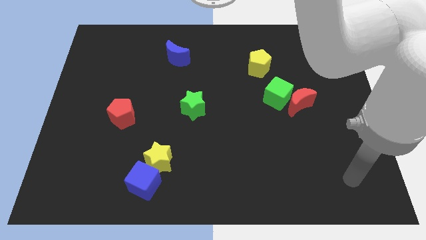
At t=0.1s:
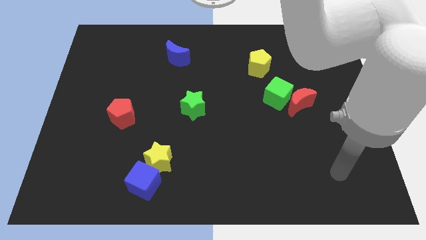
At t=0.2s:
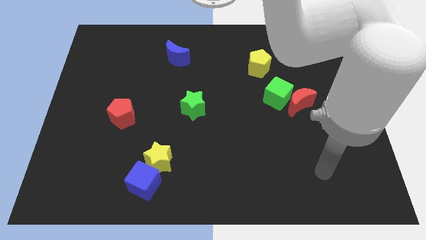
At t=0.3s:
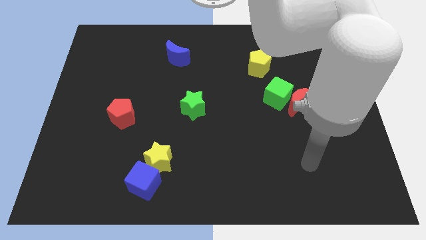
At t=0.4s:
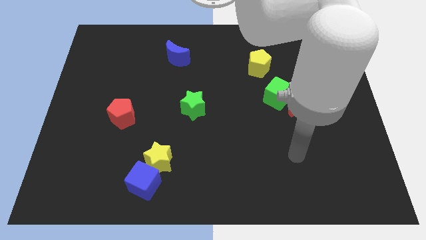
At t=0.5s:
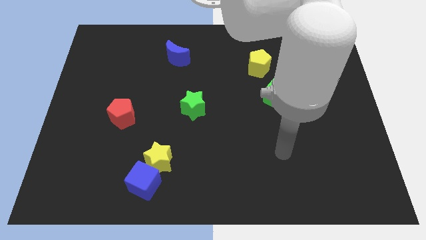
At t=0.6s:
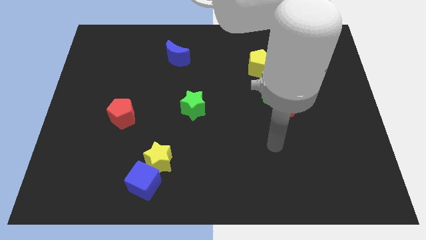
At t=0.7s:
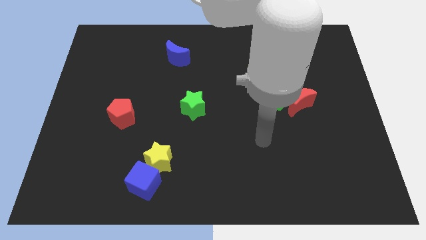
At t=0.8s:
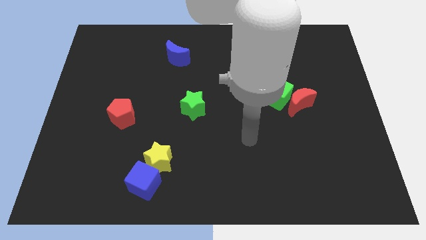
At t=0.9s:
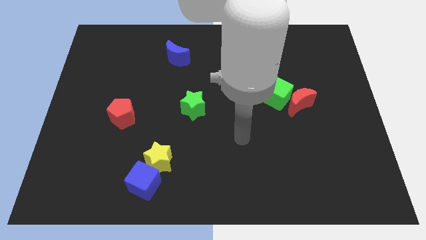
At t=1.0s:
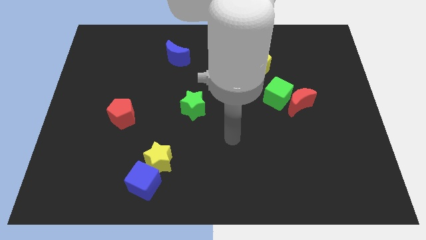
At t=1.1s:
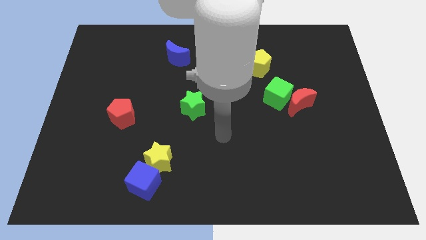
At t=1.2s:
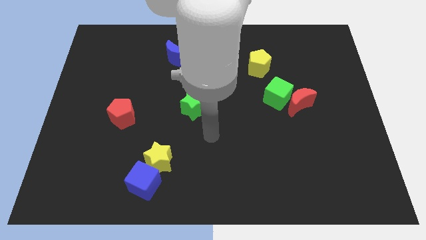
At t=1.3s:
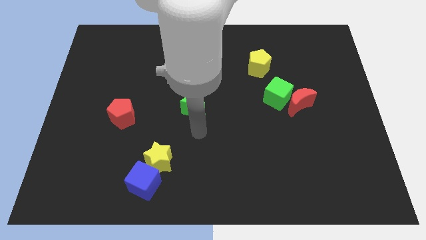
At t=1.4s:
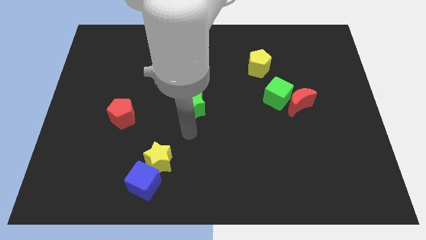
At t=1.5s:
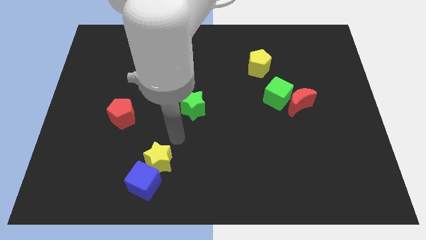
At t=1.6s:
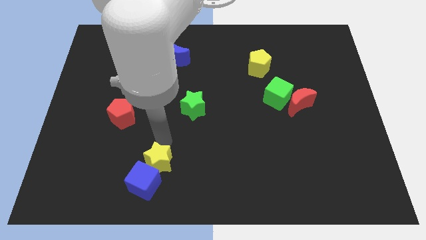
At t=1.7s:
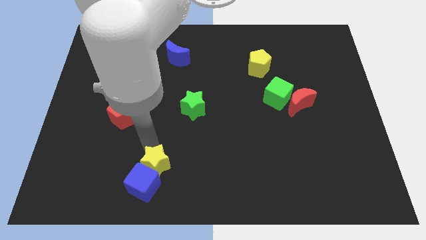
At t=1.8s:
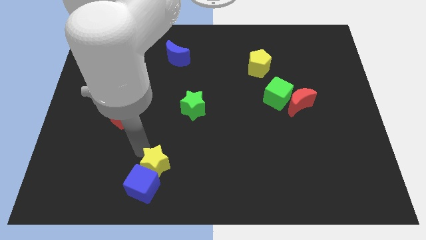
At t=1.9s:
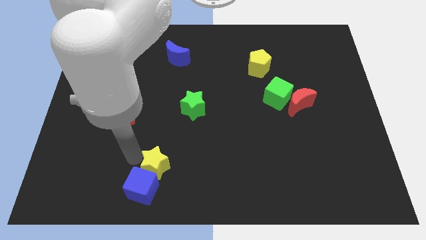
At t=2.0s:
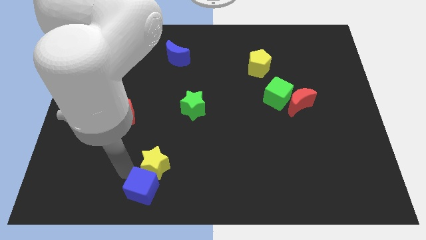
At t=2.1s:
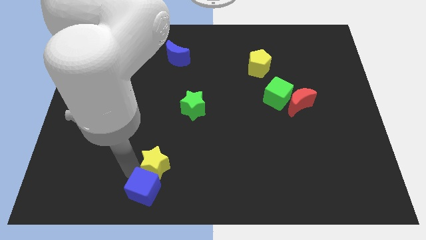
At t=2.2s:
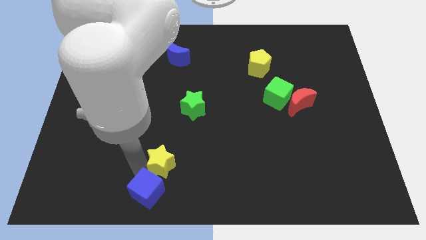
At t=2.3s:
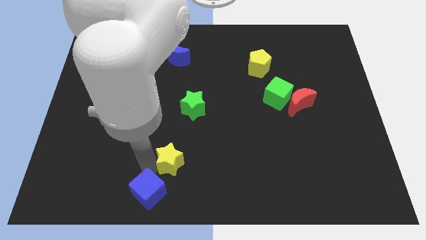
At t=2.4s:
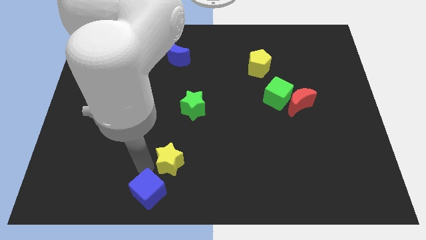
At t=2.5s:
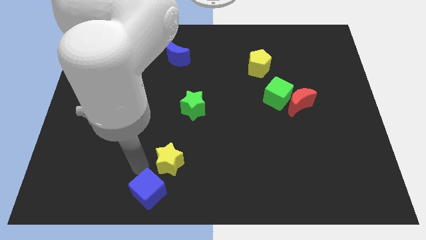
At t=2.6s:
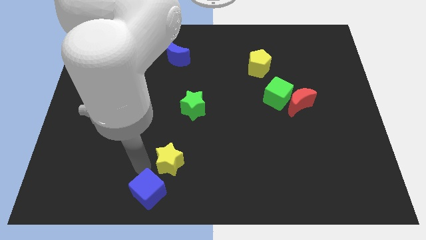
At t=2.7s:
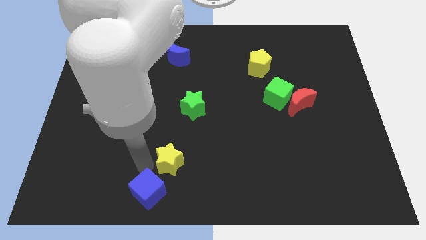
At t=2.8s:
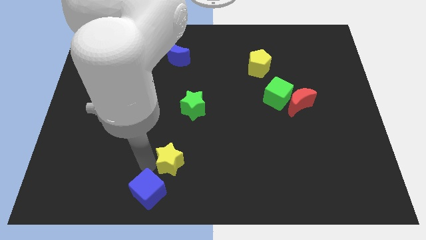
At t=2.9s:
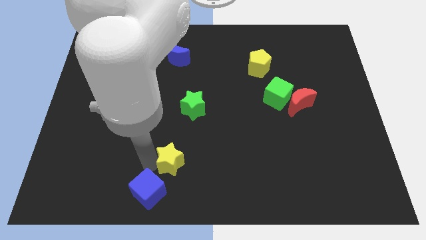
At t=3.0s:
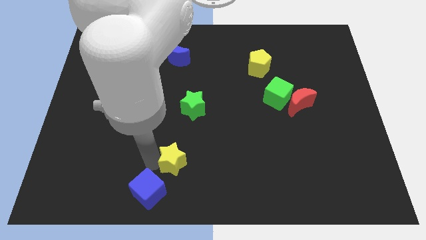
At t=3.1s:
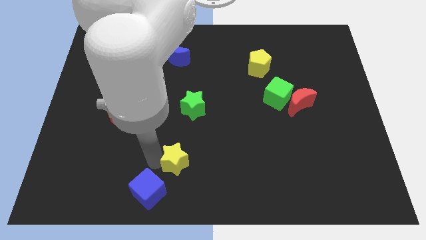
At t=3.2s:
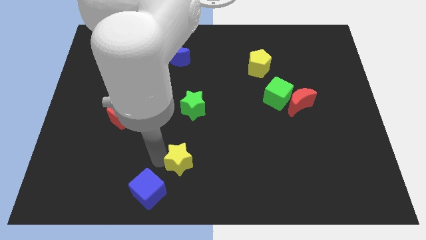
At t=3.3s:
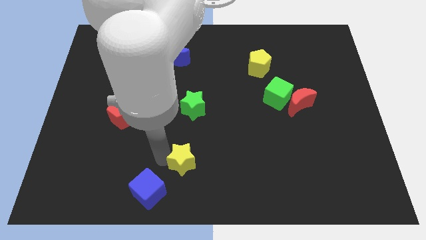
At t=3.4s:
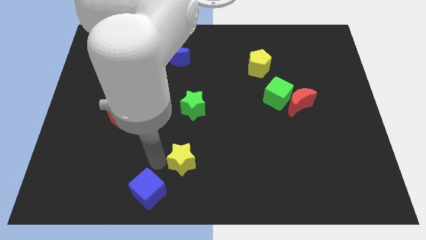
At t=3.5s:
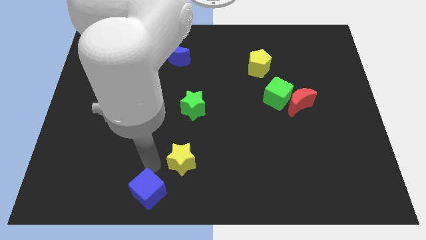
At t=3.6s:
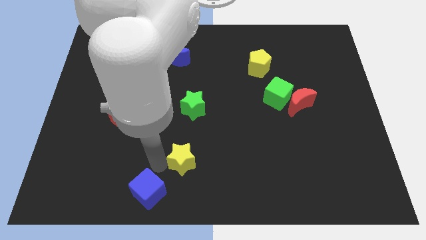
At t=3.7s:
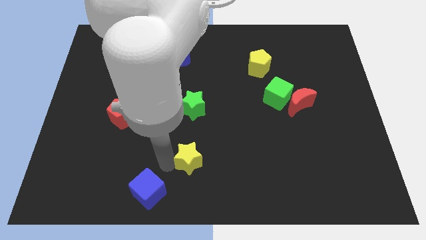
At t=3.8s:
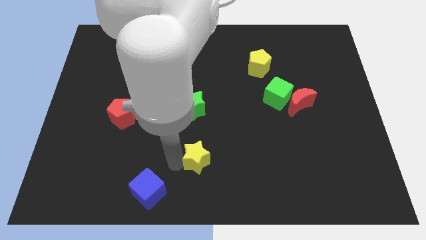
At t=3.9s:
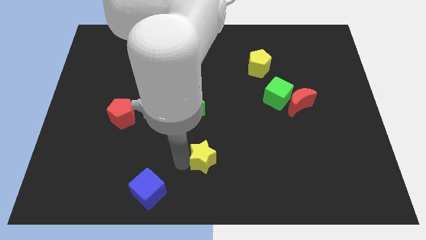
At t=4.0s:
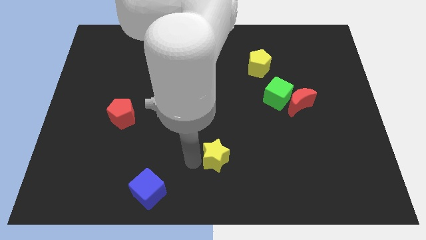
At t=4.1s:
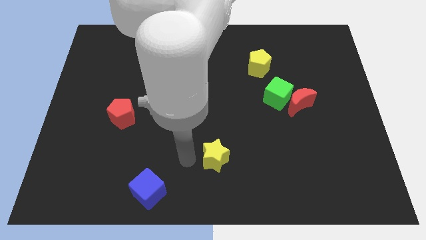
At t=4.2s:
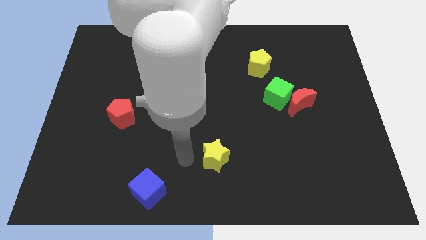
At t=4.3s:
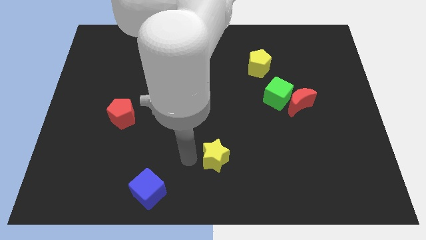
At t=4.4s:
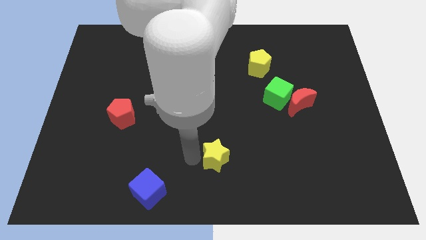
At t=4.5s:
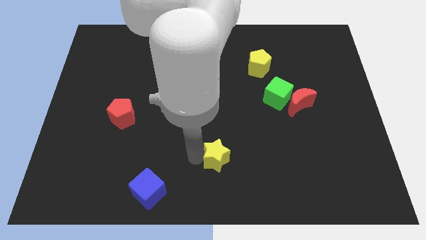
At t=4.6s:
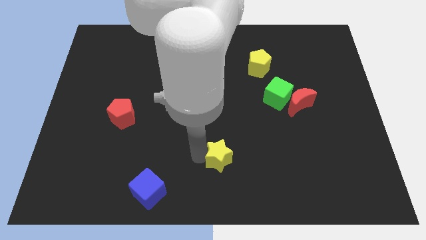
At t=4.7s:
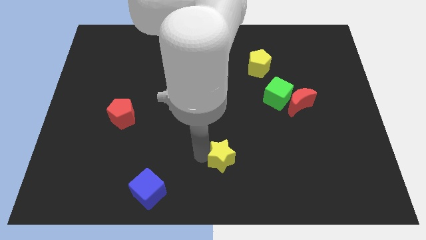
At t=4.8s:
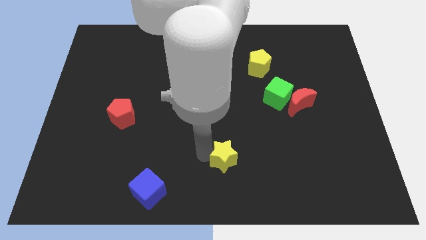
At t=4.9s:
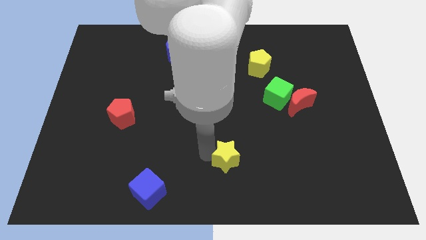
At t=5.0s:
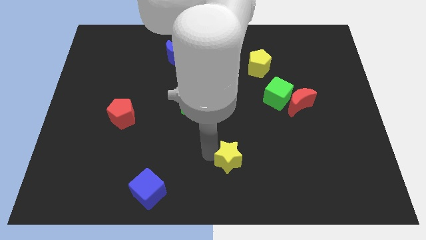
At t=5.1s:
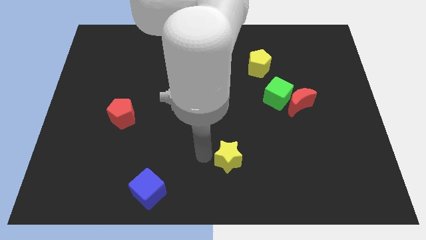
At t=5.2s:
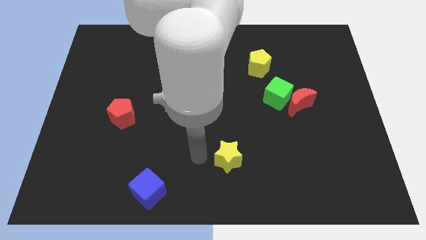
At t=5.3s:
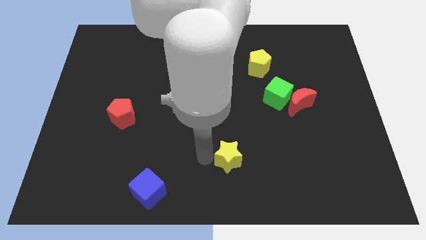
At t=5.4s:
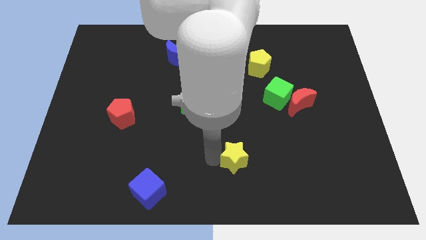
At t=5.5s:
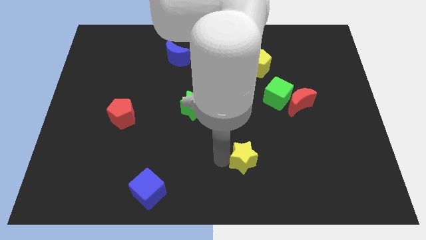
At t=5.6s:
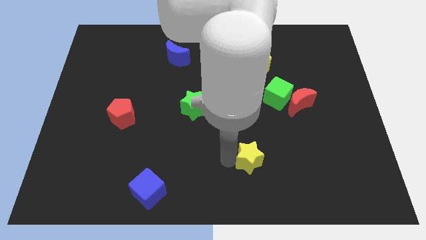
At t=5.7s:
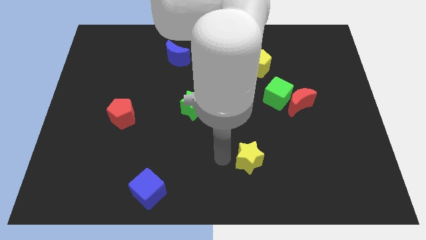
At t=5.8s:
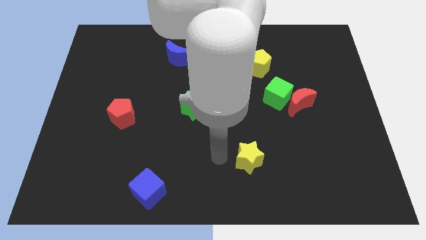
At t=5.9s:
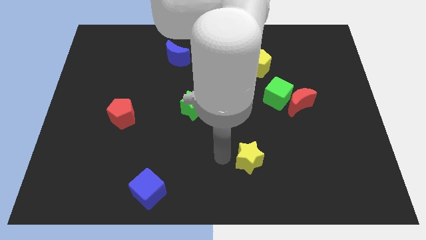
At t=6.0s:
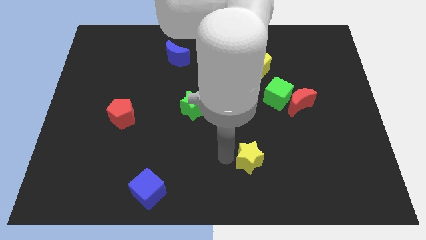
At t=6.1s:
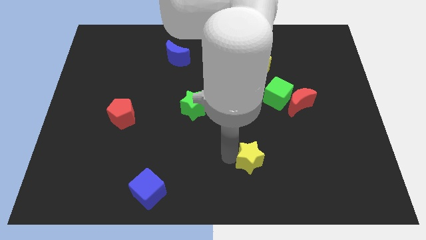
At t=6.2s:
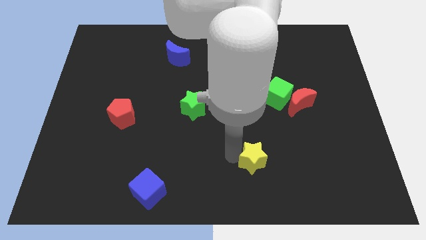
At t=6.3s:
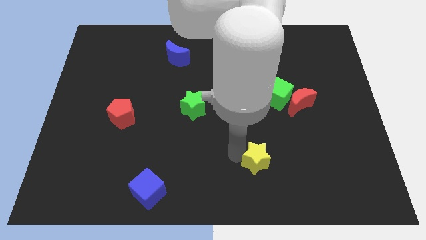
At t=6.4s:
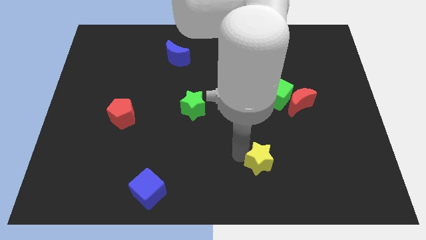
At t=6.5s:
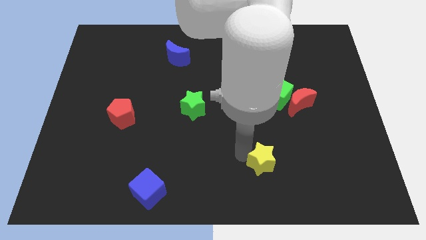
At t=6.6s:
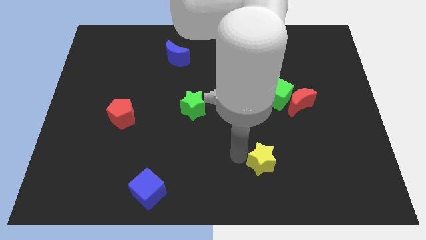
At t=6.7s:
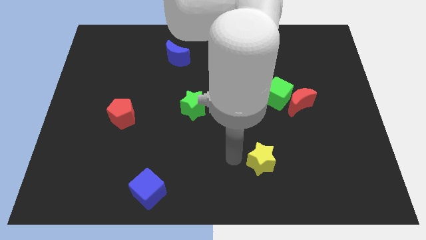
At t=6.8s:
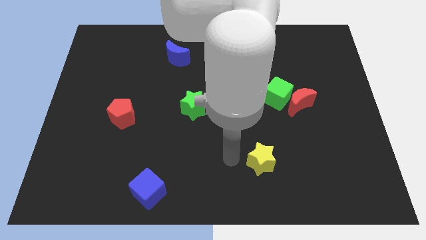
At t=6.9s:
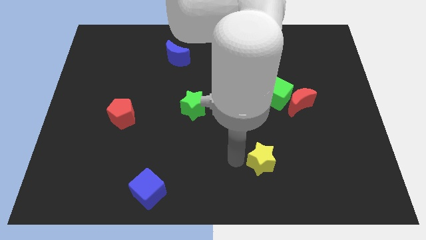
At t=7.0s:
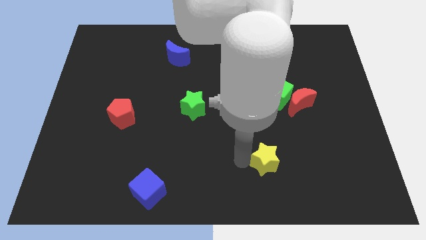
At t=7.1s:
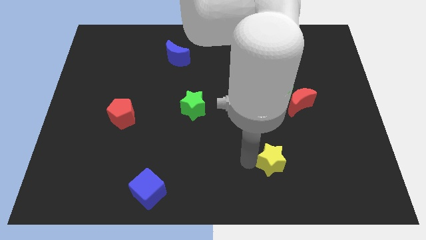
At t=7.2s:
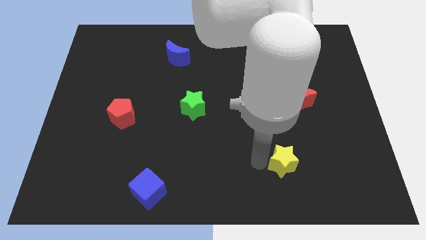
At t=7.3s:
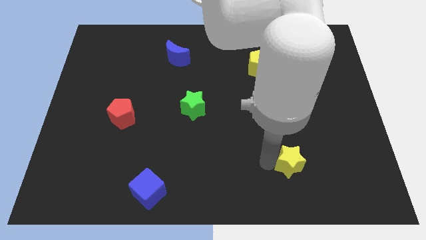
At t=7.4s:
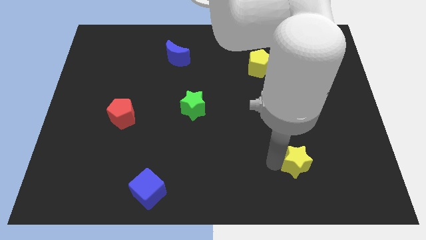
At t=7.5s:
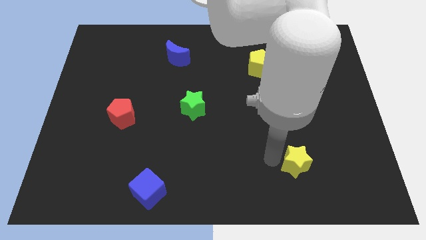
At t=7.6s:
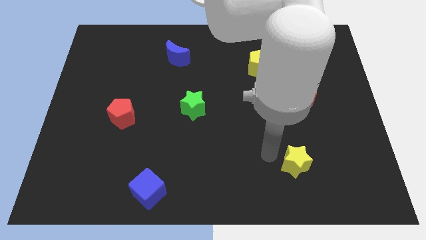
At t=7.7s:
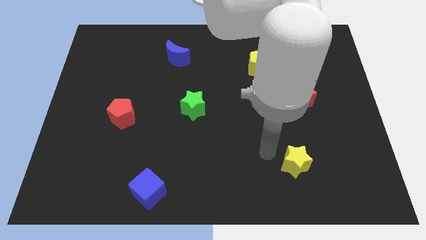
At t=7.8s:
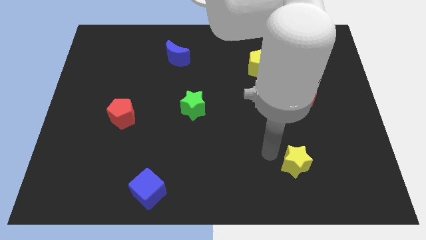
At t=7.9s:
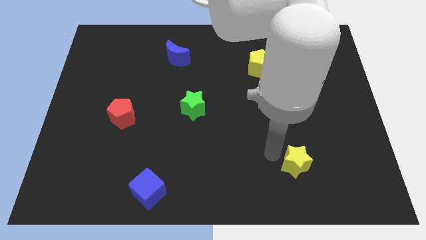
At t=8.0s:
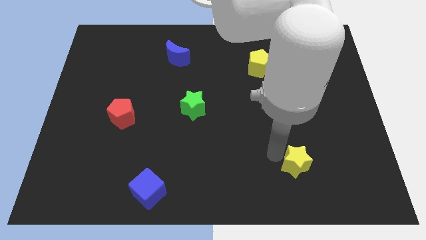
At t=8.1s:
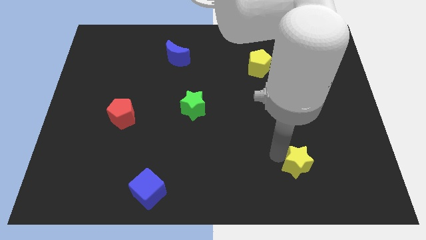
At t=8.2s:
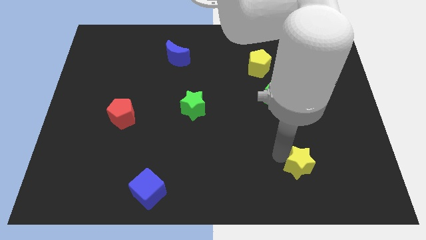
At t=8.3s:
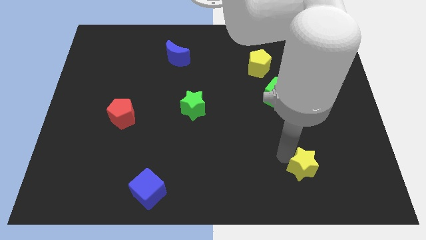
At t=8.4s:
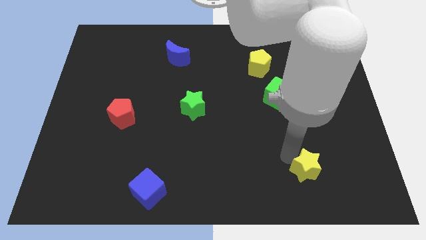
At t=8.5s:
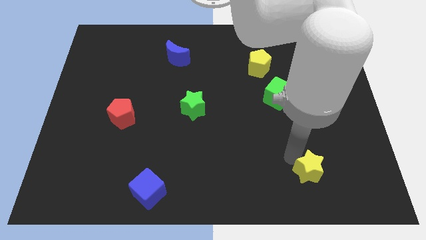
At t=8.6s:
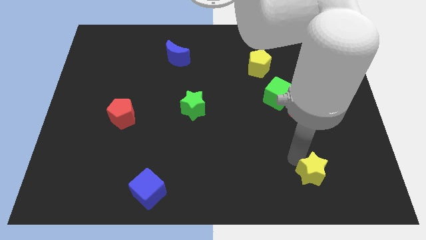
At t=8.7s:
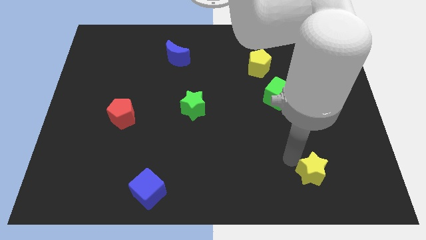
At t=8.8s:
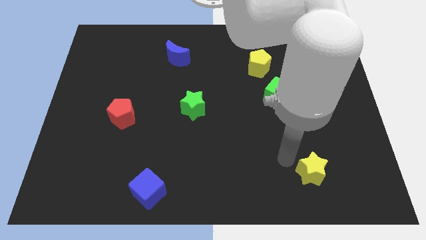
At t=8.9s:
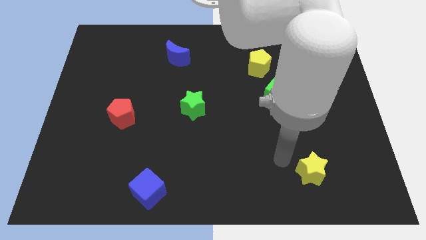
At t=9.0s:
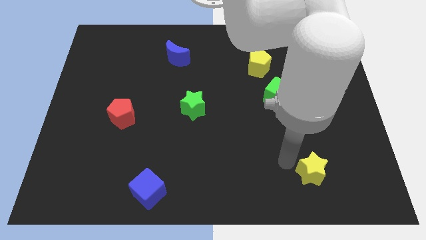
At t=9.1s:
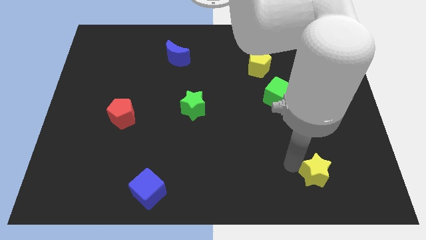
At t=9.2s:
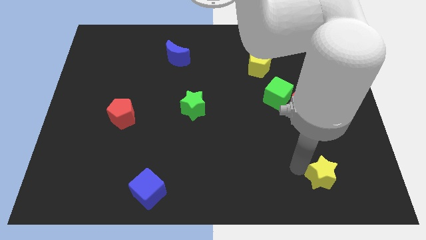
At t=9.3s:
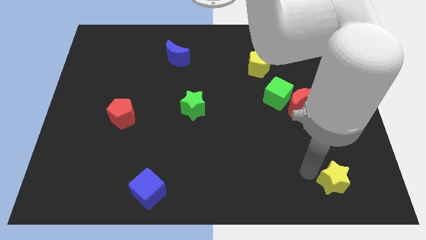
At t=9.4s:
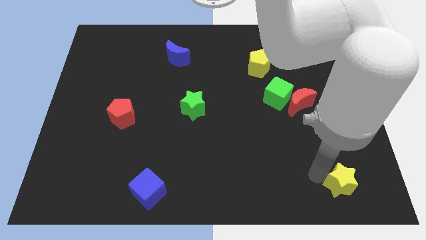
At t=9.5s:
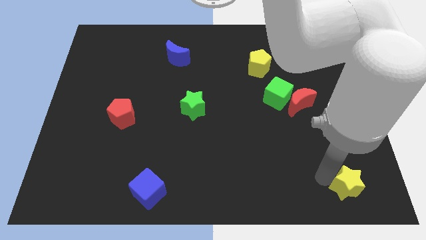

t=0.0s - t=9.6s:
slide the yellow star to the bottom right of the board
